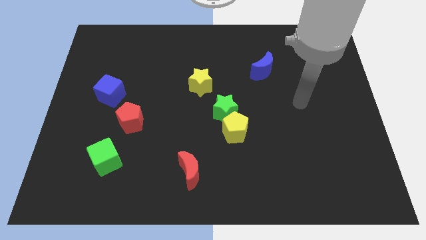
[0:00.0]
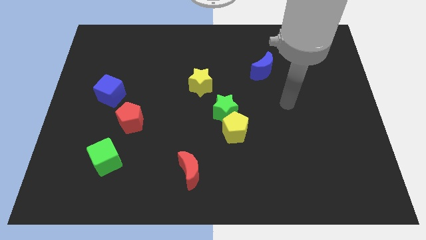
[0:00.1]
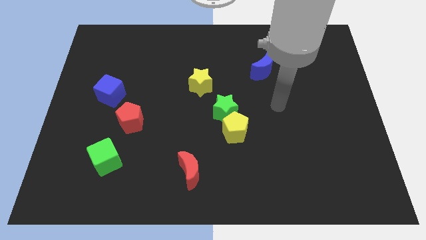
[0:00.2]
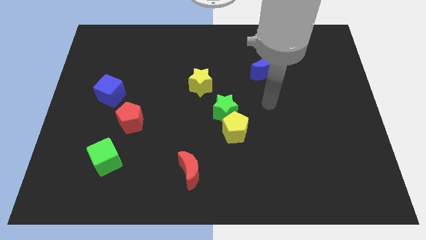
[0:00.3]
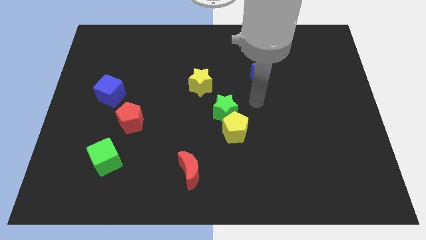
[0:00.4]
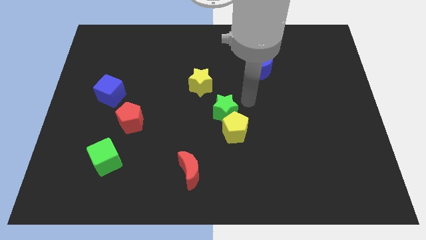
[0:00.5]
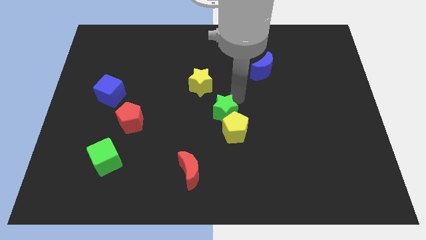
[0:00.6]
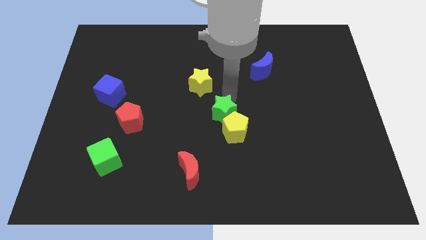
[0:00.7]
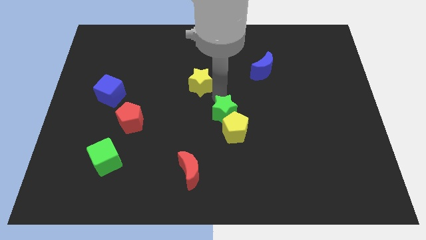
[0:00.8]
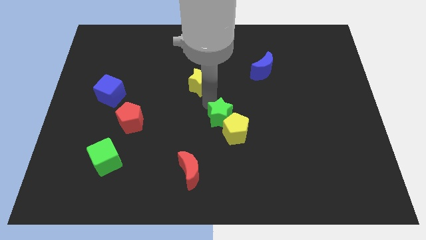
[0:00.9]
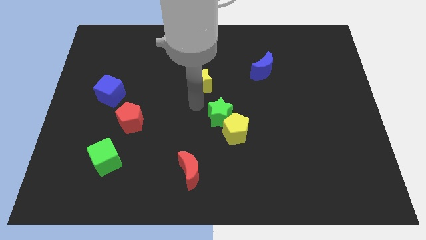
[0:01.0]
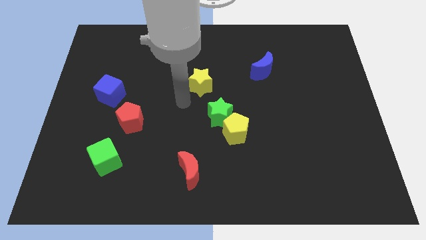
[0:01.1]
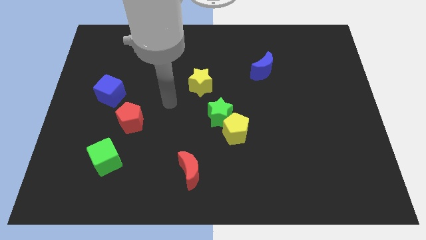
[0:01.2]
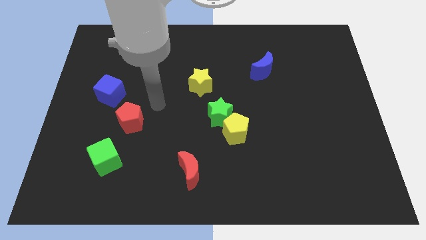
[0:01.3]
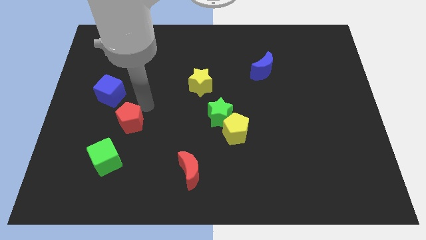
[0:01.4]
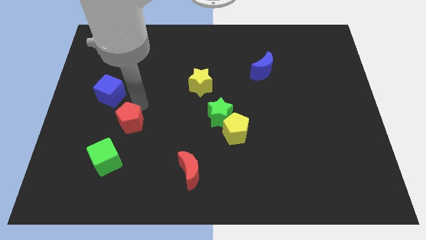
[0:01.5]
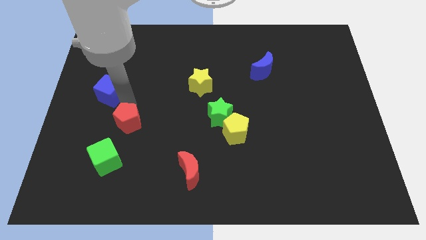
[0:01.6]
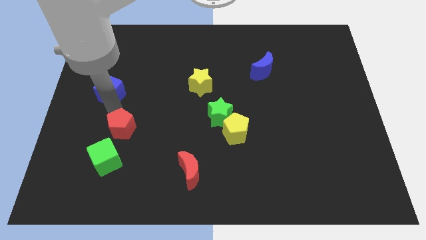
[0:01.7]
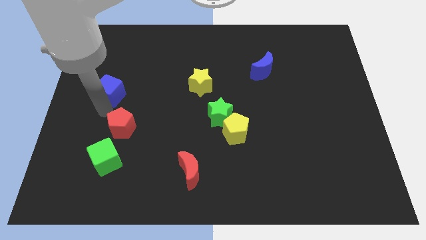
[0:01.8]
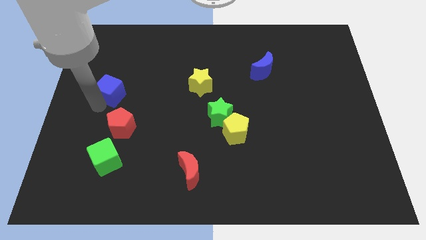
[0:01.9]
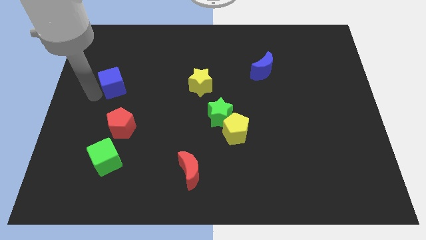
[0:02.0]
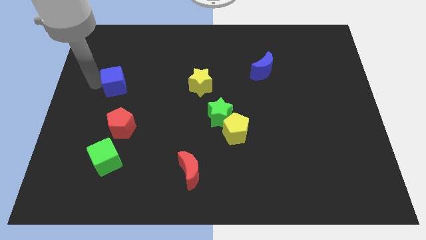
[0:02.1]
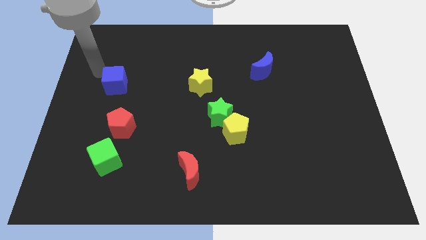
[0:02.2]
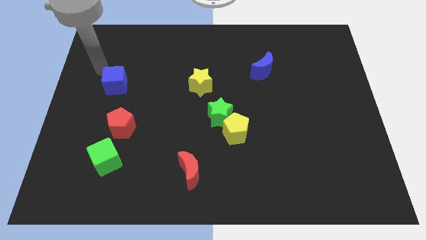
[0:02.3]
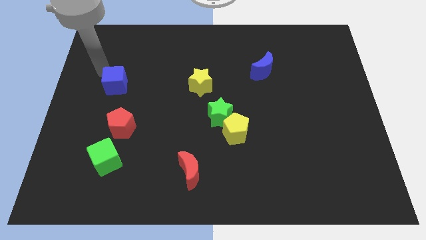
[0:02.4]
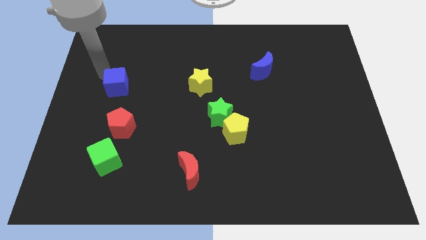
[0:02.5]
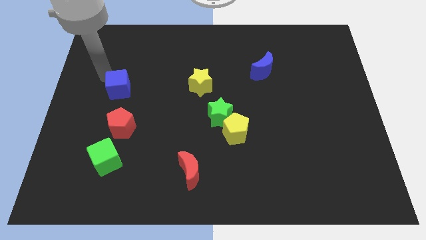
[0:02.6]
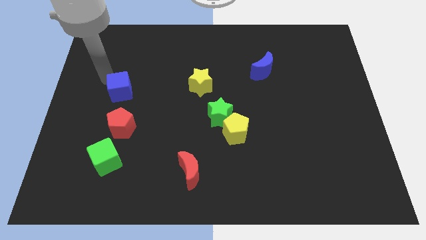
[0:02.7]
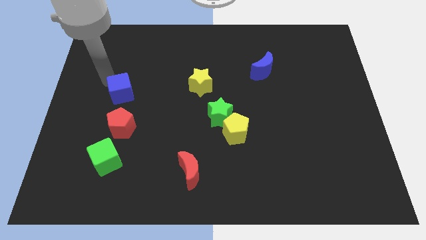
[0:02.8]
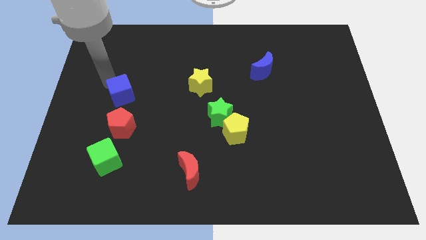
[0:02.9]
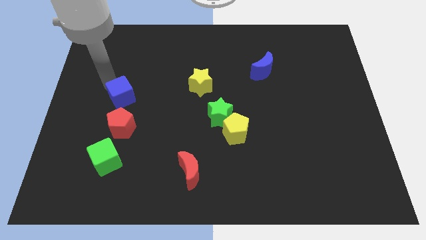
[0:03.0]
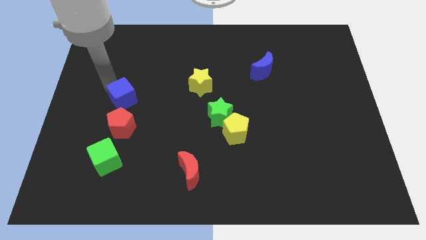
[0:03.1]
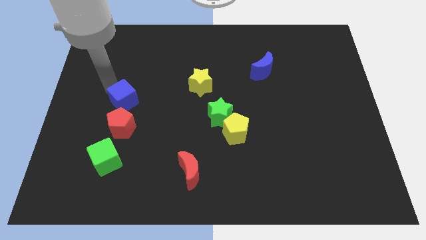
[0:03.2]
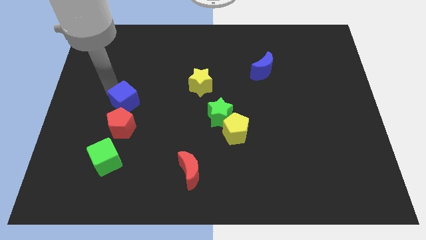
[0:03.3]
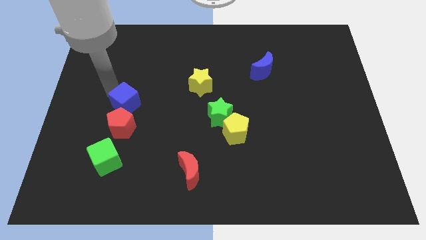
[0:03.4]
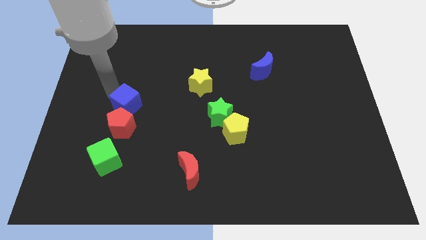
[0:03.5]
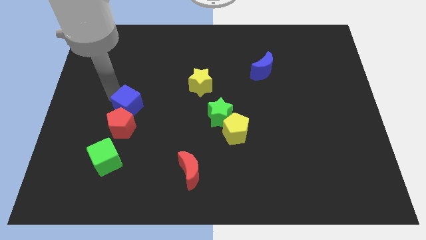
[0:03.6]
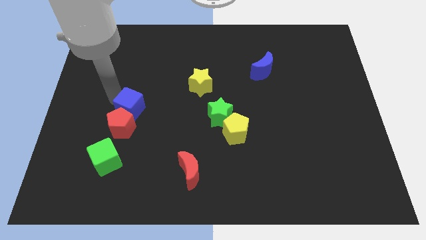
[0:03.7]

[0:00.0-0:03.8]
move the blue cube slightly downwards and then to the right

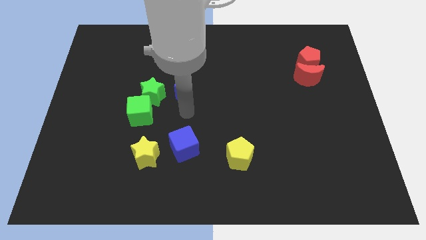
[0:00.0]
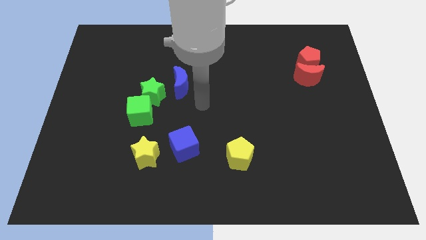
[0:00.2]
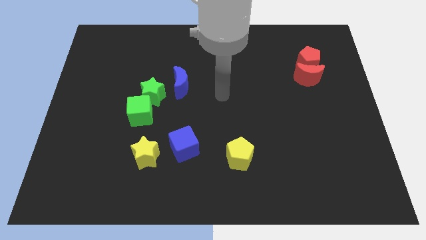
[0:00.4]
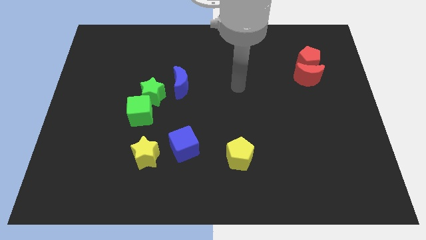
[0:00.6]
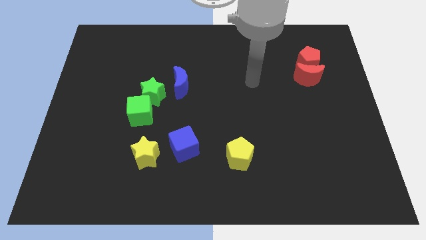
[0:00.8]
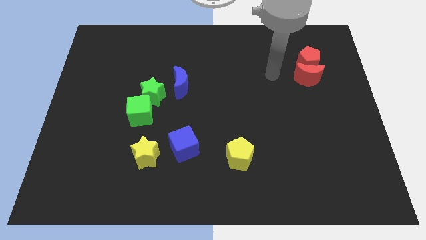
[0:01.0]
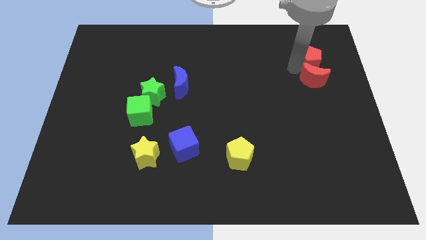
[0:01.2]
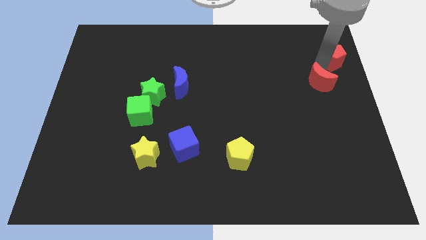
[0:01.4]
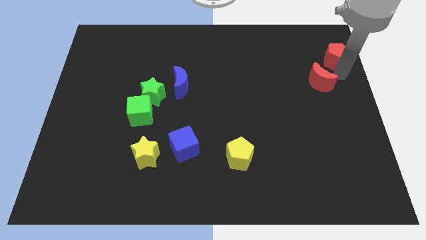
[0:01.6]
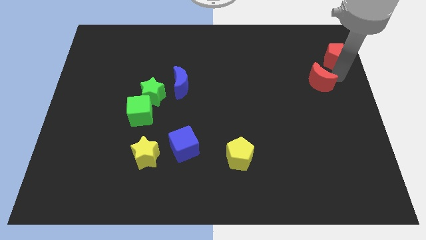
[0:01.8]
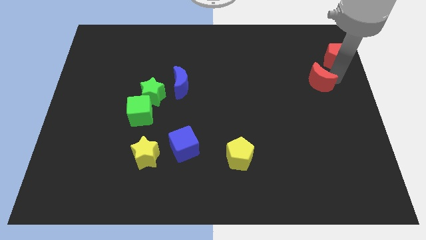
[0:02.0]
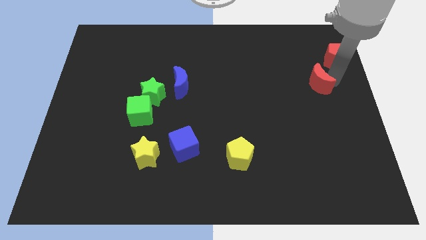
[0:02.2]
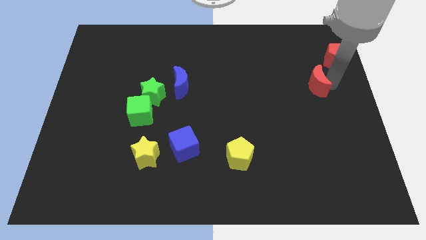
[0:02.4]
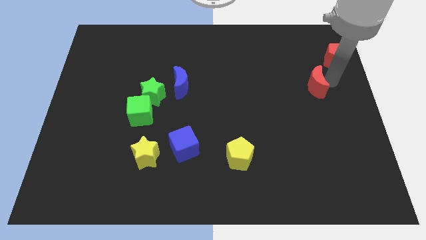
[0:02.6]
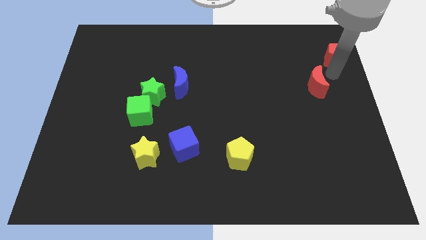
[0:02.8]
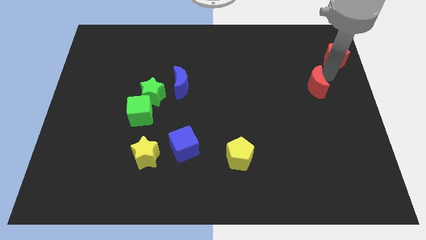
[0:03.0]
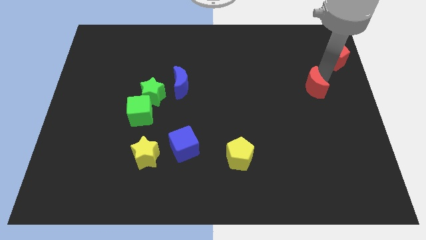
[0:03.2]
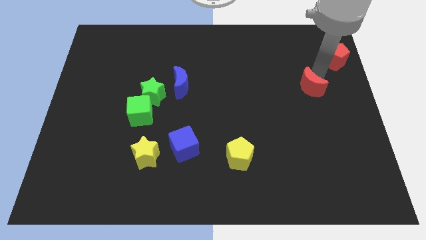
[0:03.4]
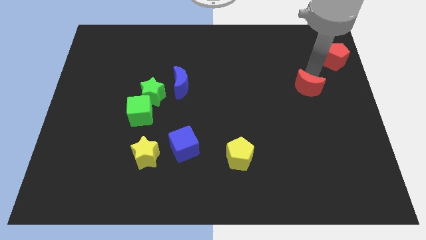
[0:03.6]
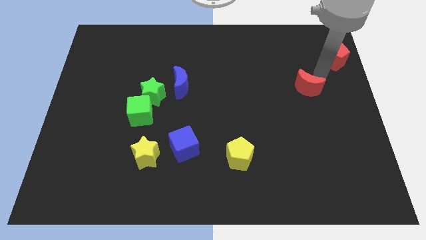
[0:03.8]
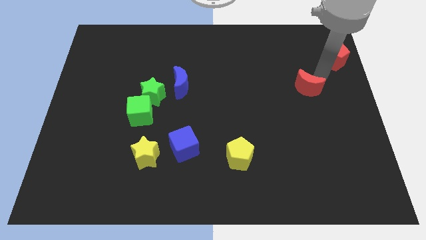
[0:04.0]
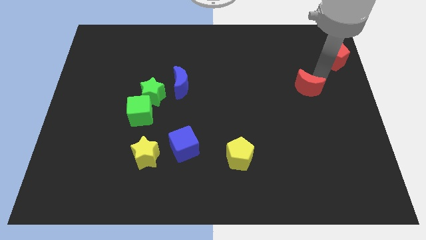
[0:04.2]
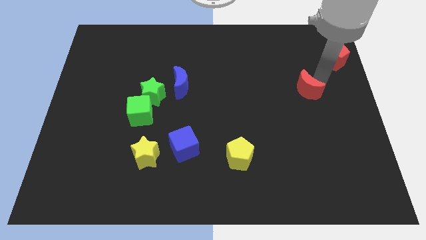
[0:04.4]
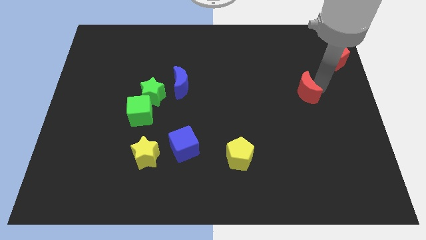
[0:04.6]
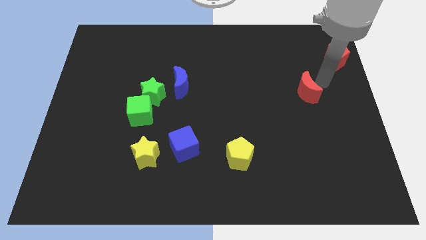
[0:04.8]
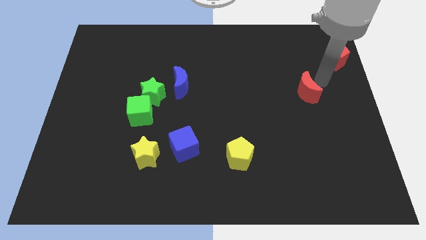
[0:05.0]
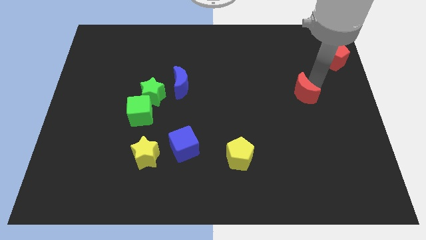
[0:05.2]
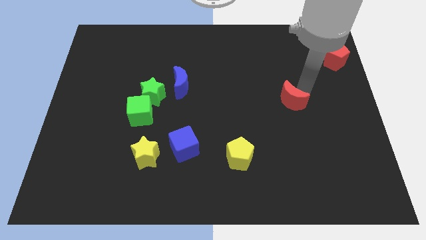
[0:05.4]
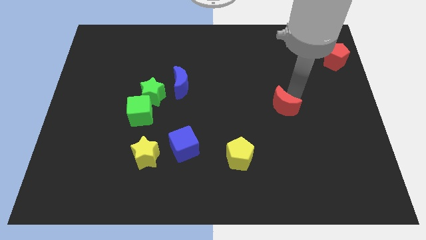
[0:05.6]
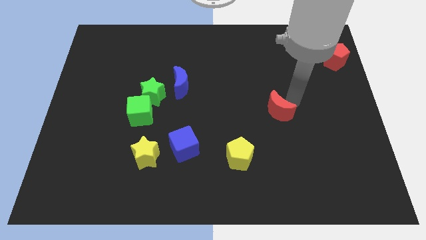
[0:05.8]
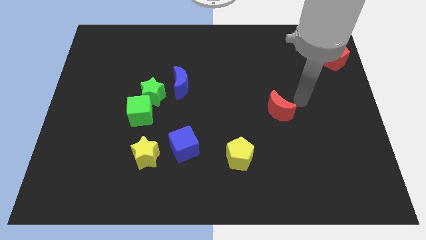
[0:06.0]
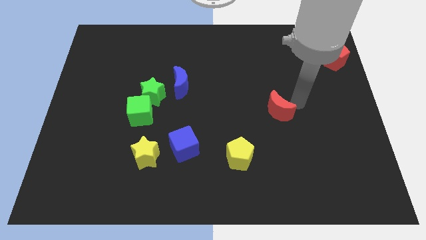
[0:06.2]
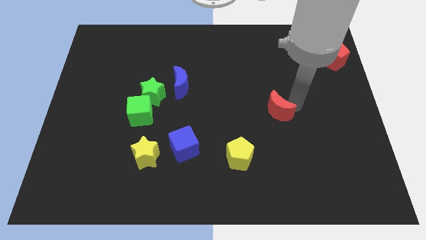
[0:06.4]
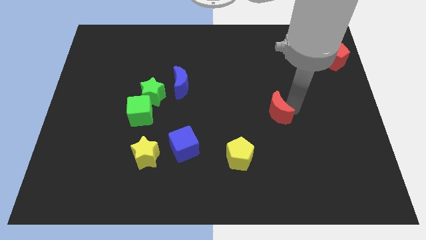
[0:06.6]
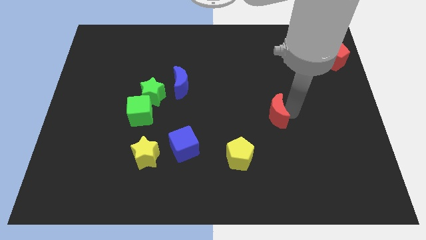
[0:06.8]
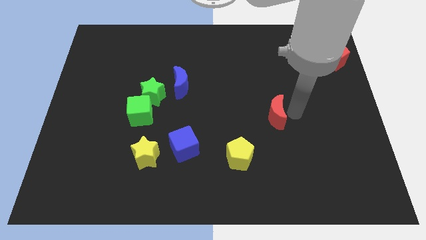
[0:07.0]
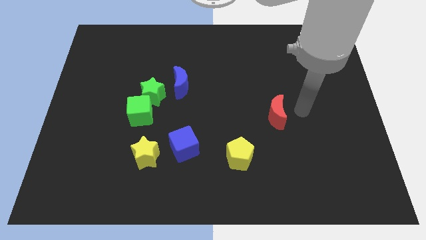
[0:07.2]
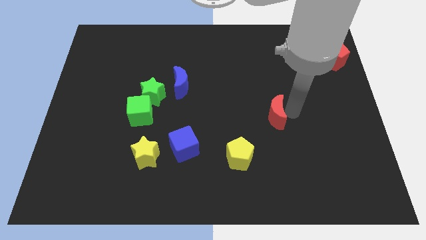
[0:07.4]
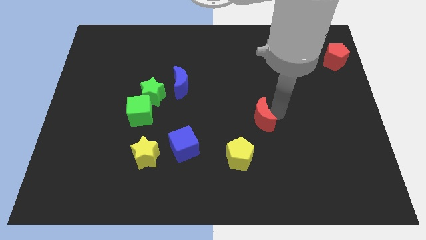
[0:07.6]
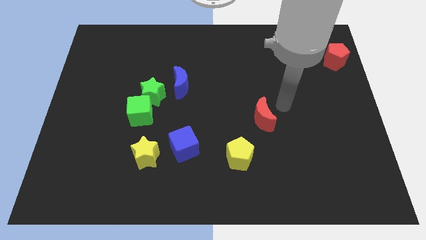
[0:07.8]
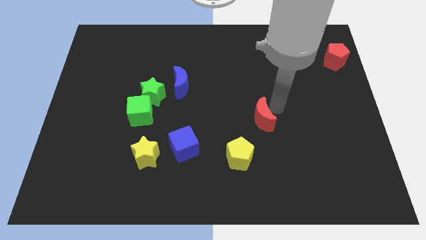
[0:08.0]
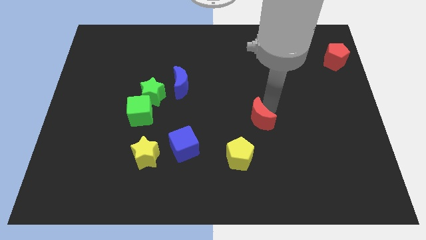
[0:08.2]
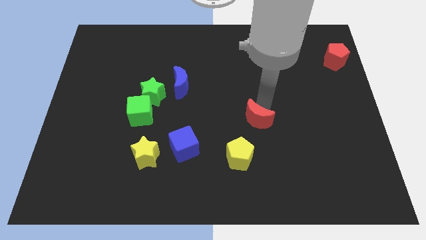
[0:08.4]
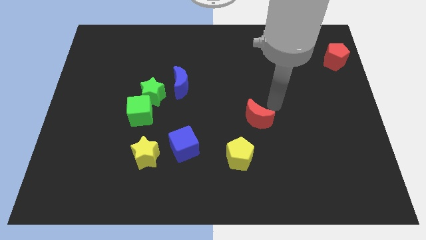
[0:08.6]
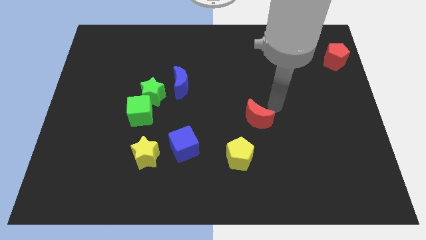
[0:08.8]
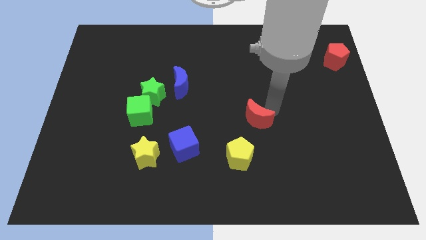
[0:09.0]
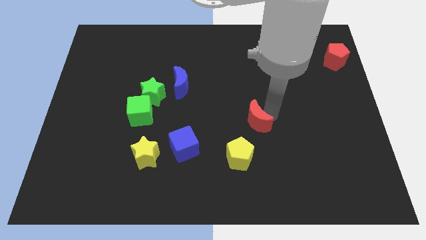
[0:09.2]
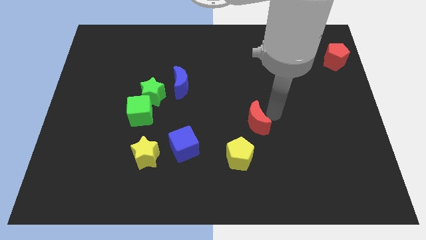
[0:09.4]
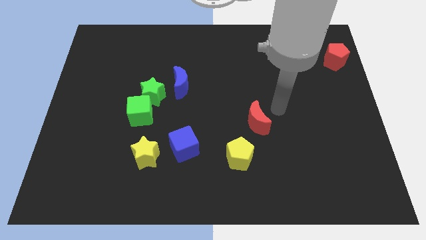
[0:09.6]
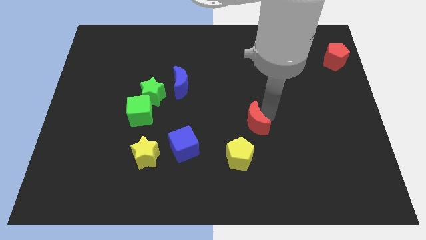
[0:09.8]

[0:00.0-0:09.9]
move the red moon diagonally downwards and left
